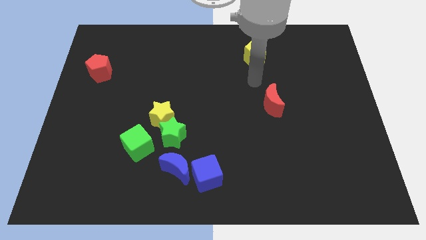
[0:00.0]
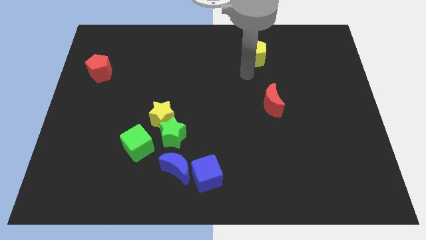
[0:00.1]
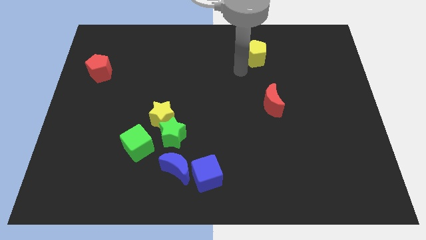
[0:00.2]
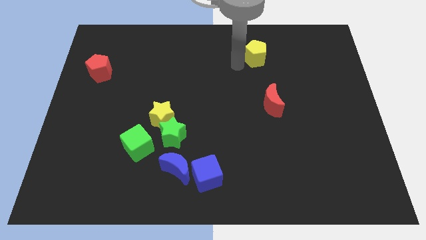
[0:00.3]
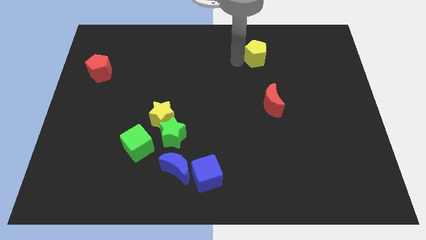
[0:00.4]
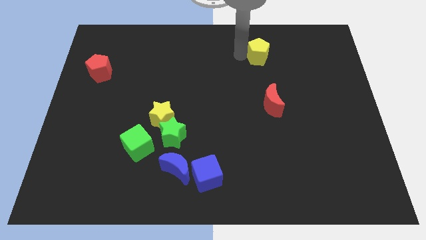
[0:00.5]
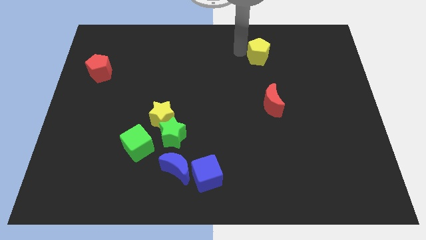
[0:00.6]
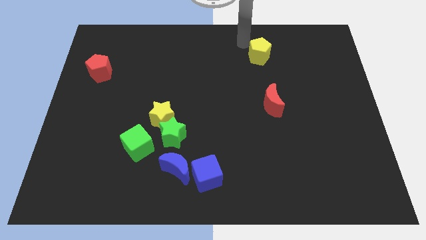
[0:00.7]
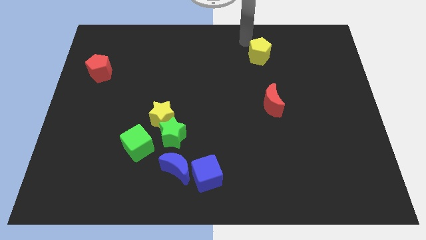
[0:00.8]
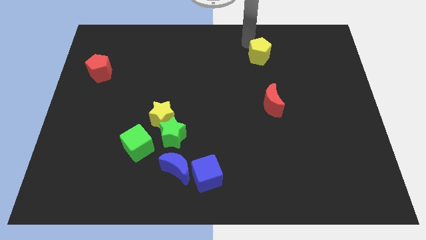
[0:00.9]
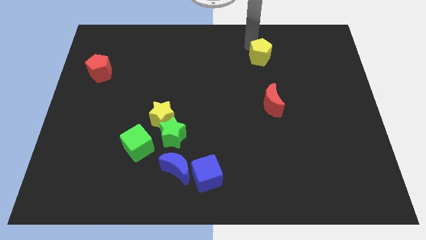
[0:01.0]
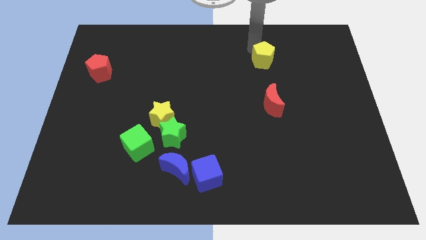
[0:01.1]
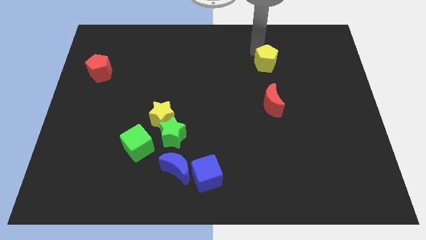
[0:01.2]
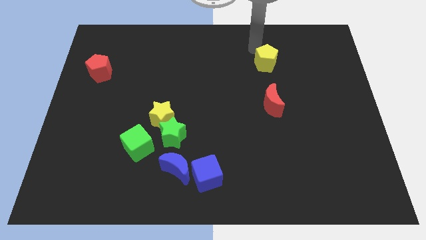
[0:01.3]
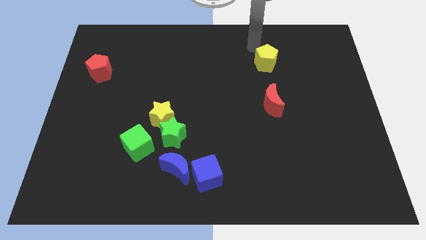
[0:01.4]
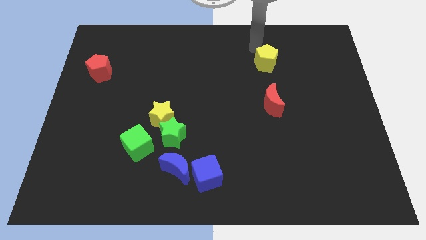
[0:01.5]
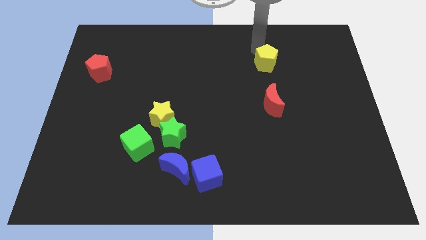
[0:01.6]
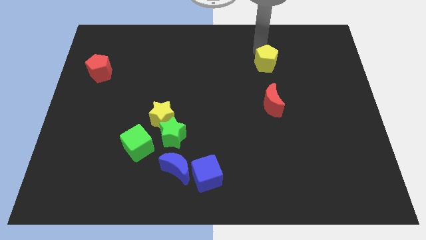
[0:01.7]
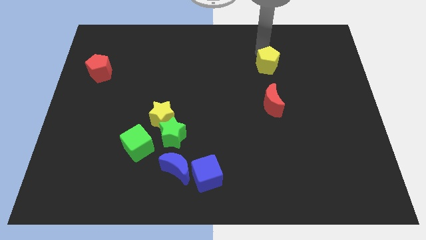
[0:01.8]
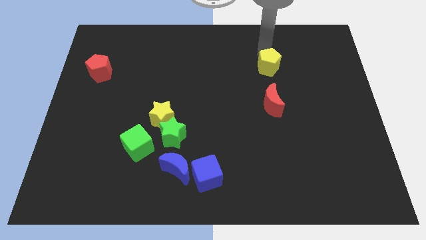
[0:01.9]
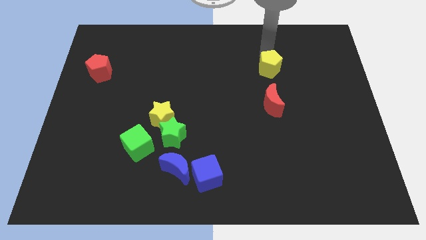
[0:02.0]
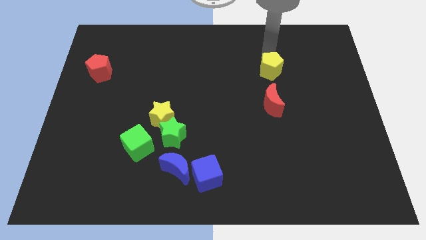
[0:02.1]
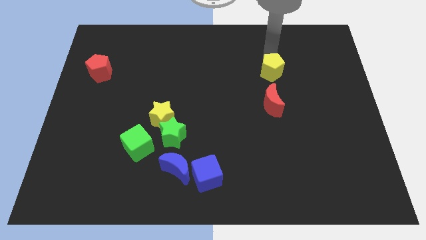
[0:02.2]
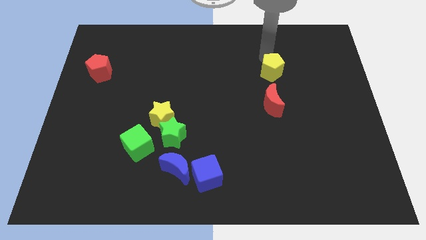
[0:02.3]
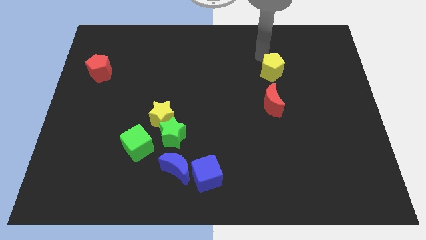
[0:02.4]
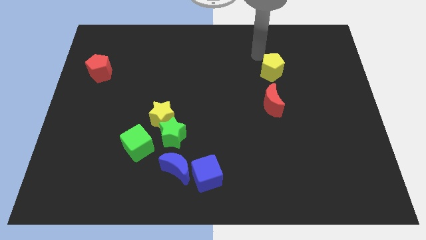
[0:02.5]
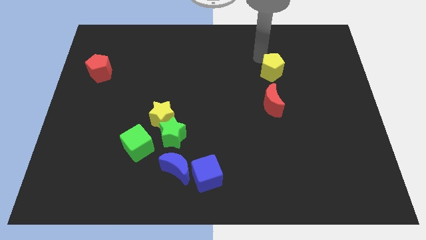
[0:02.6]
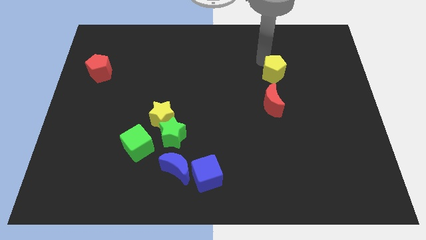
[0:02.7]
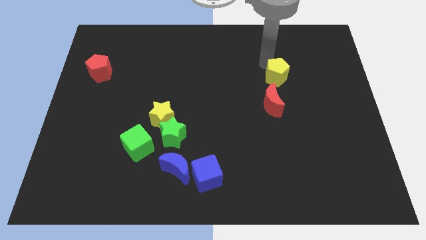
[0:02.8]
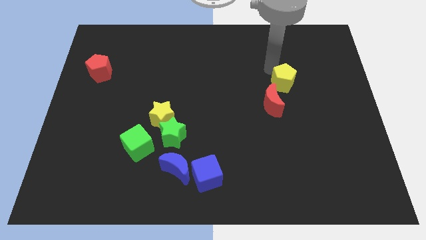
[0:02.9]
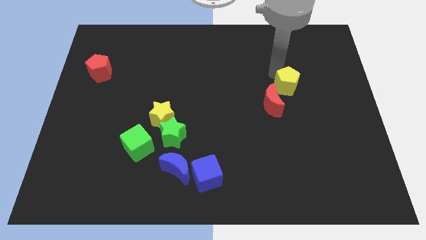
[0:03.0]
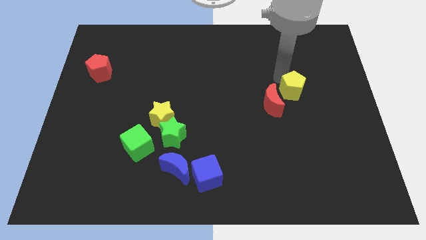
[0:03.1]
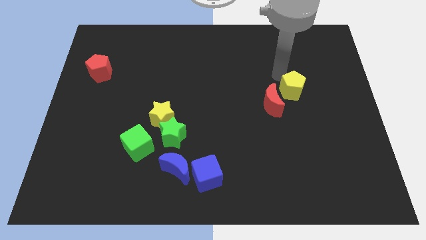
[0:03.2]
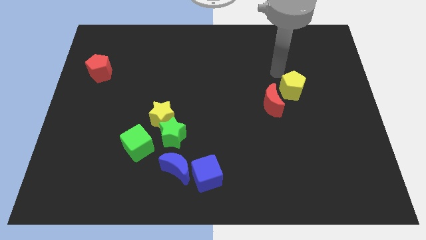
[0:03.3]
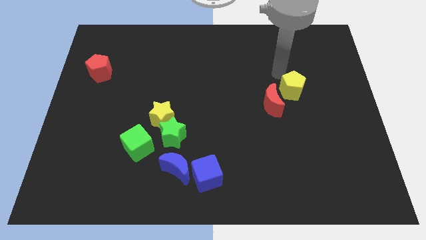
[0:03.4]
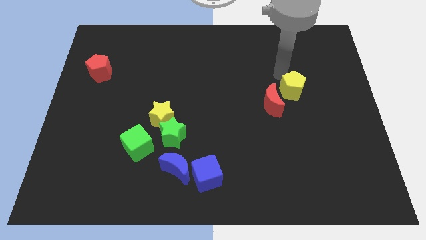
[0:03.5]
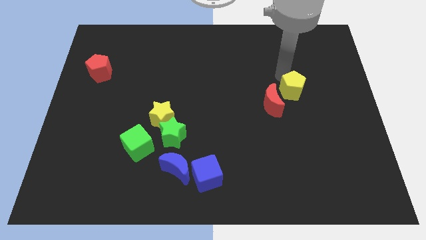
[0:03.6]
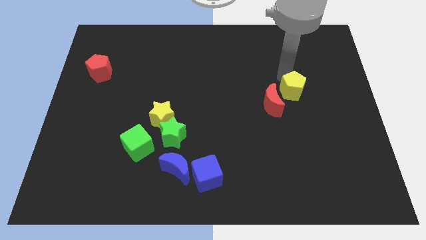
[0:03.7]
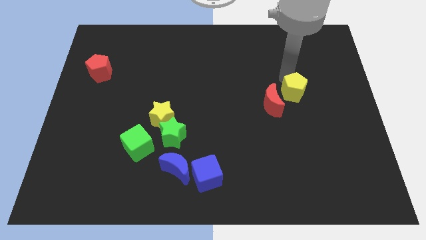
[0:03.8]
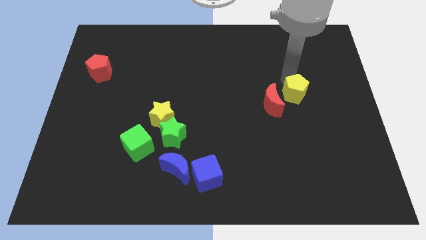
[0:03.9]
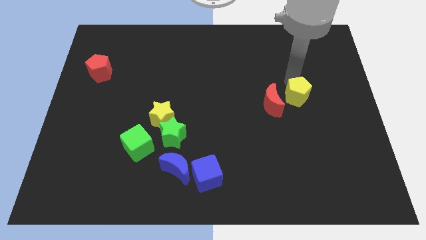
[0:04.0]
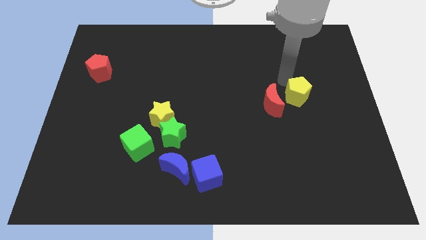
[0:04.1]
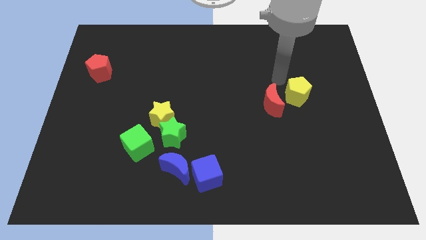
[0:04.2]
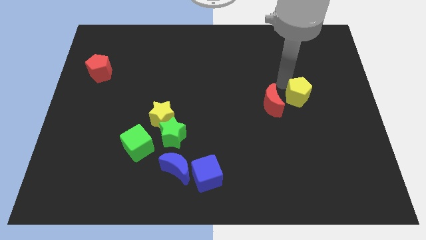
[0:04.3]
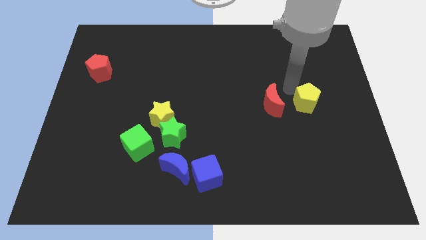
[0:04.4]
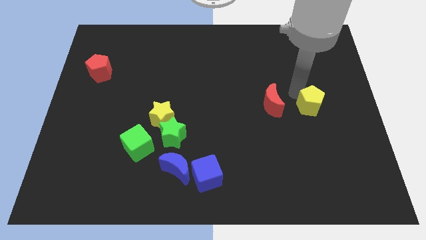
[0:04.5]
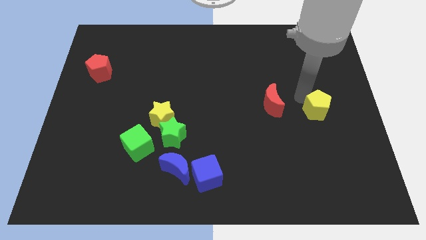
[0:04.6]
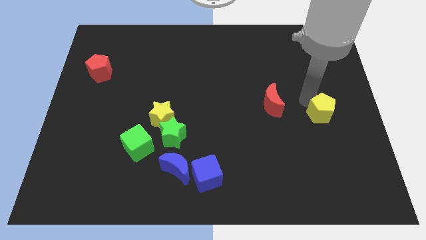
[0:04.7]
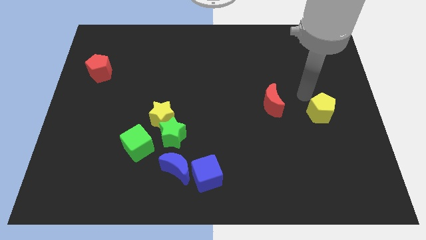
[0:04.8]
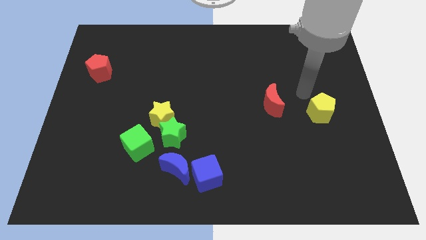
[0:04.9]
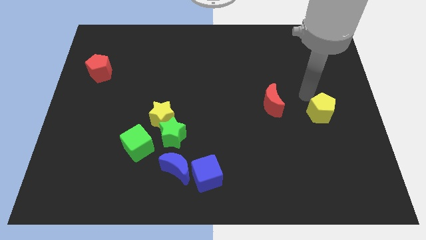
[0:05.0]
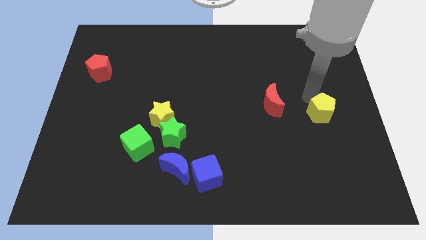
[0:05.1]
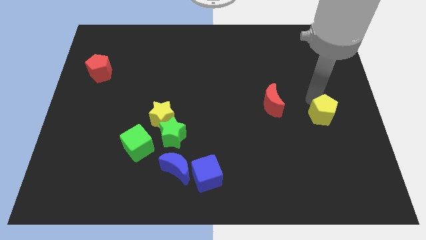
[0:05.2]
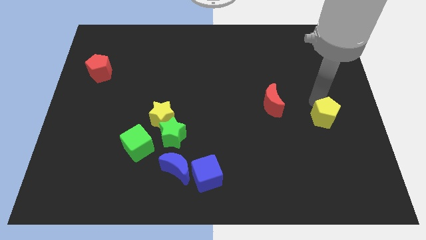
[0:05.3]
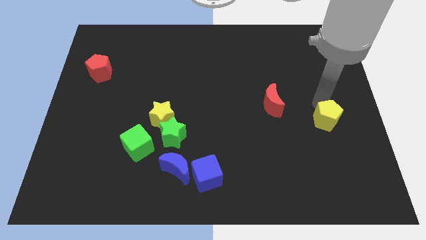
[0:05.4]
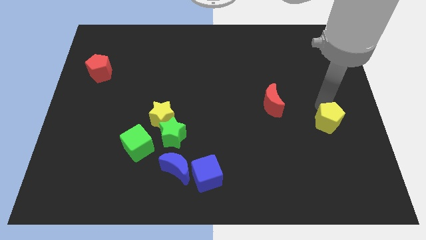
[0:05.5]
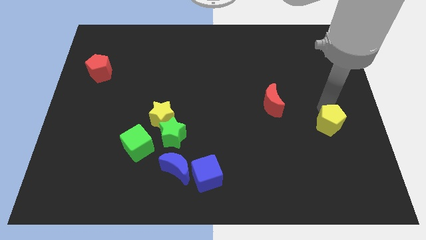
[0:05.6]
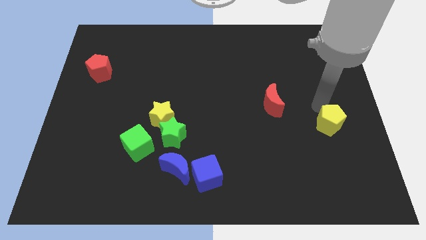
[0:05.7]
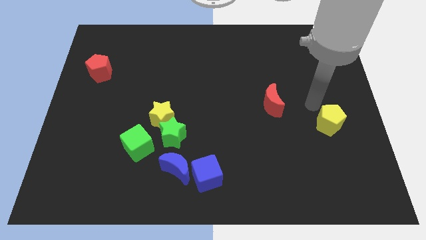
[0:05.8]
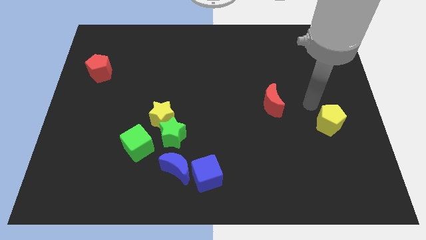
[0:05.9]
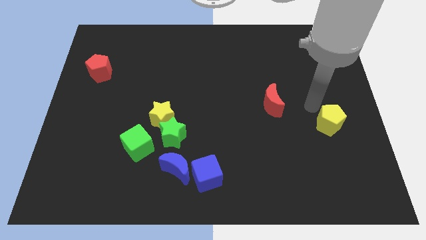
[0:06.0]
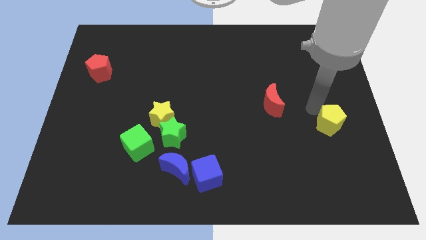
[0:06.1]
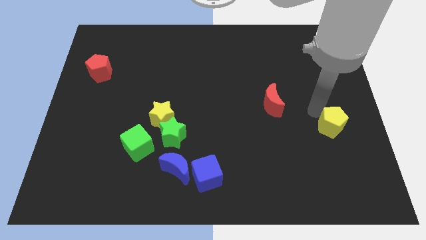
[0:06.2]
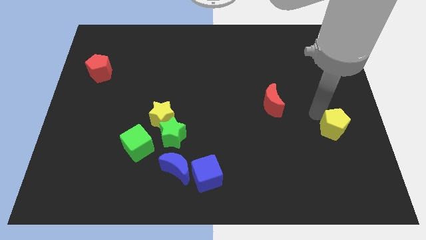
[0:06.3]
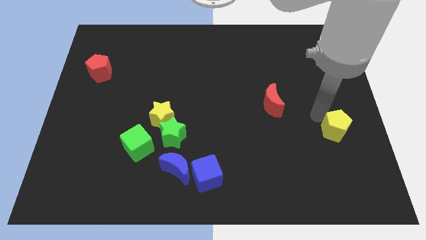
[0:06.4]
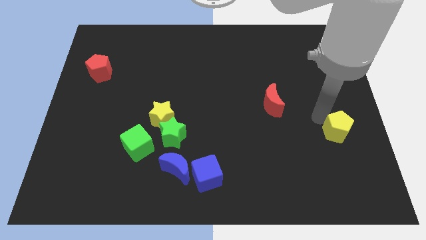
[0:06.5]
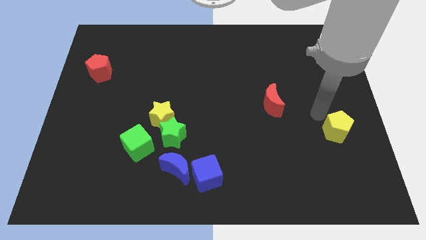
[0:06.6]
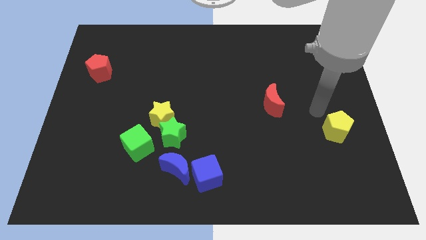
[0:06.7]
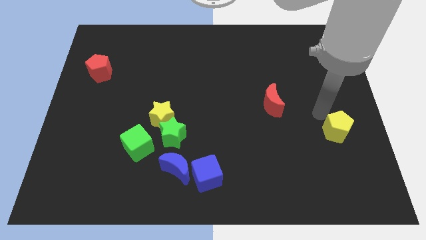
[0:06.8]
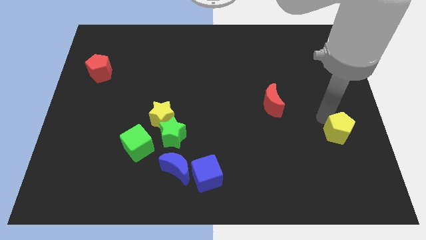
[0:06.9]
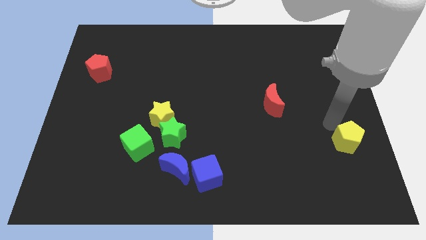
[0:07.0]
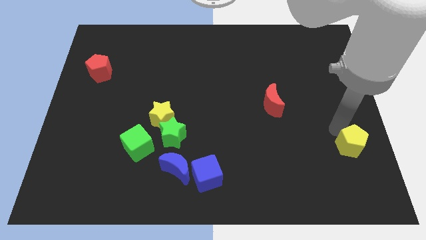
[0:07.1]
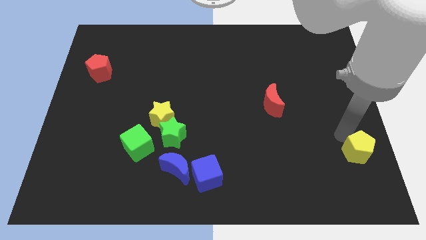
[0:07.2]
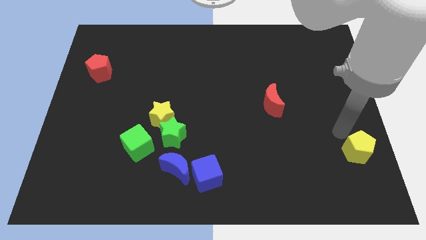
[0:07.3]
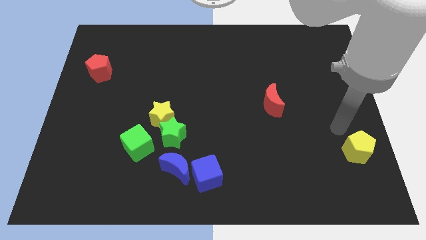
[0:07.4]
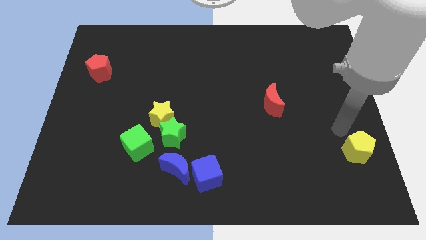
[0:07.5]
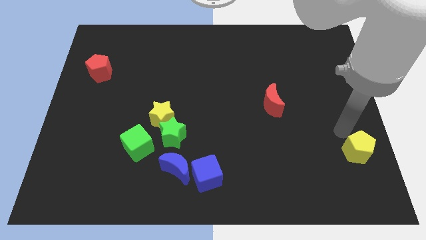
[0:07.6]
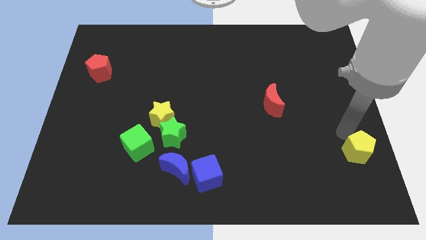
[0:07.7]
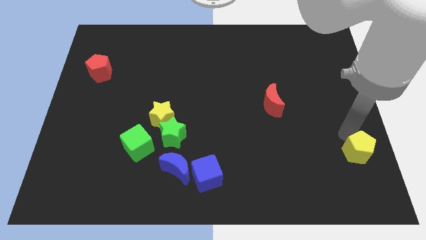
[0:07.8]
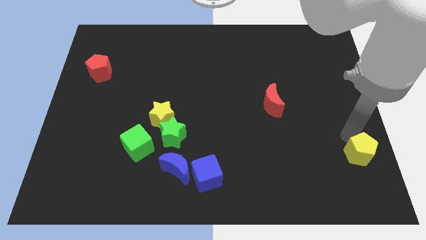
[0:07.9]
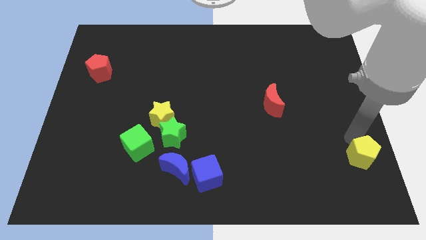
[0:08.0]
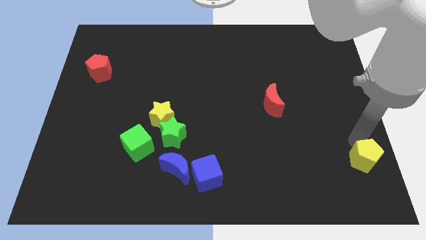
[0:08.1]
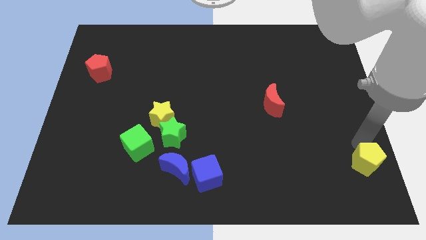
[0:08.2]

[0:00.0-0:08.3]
push the yellow pentagon to the bottom right of the board
